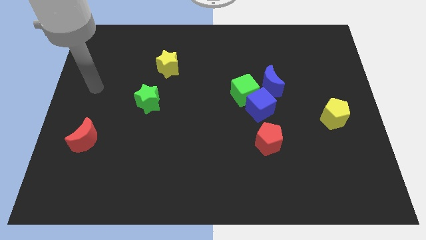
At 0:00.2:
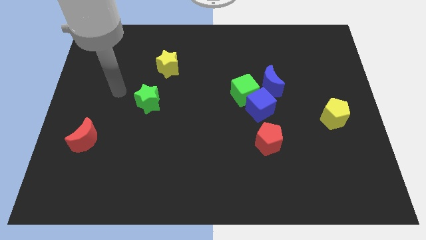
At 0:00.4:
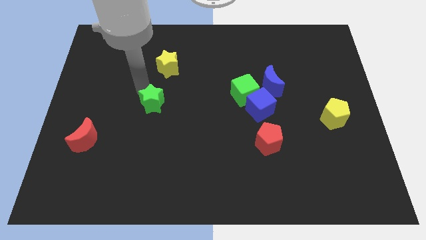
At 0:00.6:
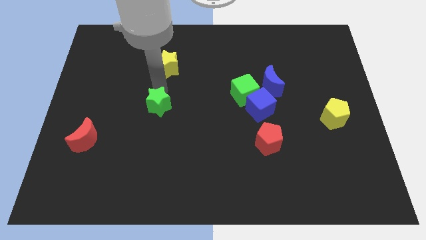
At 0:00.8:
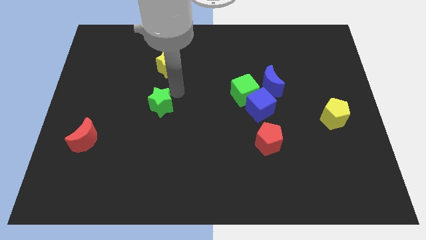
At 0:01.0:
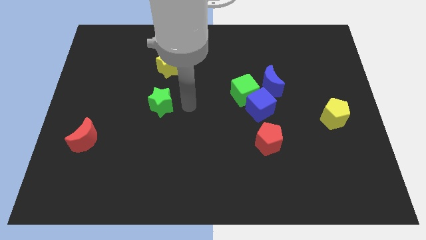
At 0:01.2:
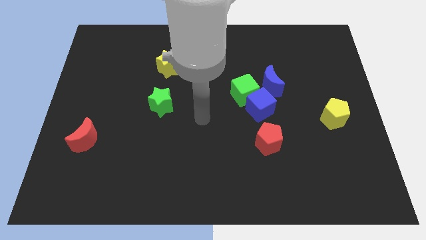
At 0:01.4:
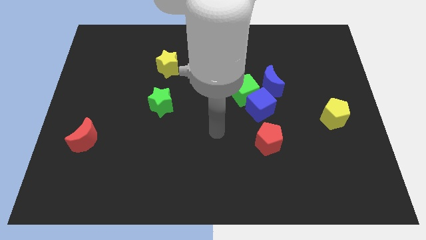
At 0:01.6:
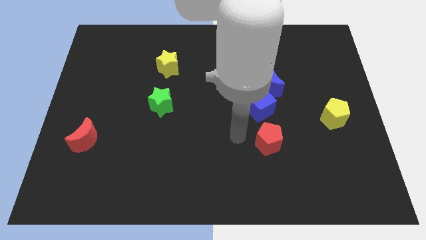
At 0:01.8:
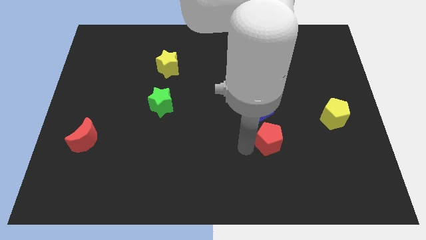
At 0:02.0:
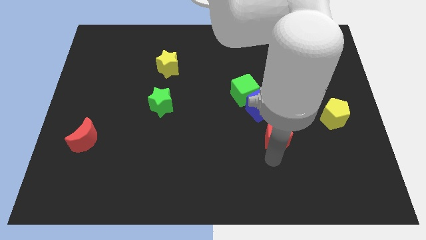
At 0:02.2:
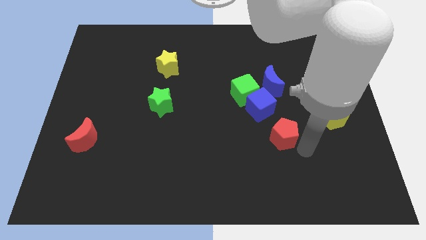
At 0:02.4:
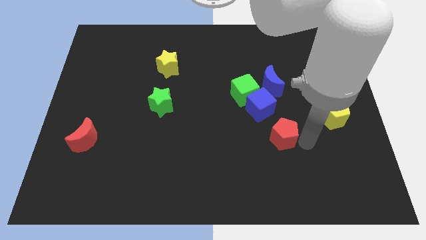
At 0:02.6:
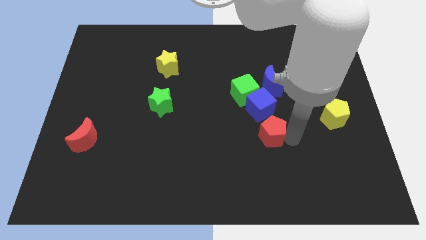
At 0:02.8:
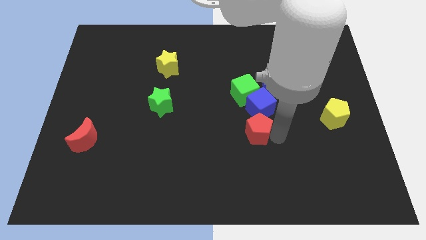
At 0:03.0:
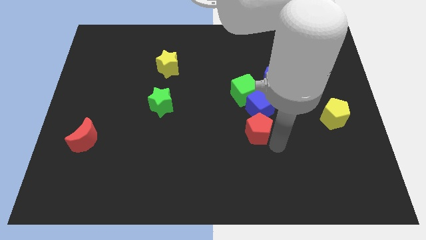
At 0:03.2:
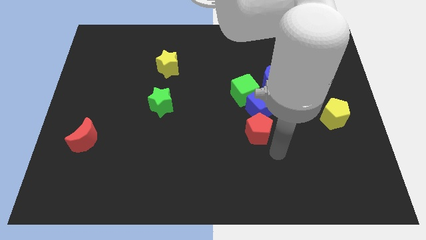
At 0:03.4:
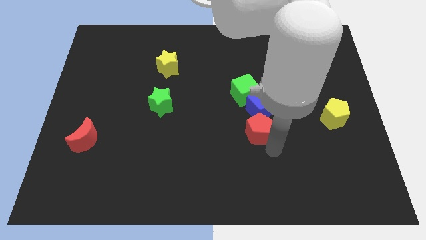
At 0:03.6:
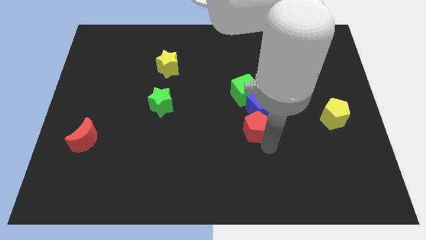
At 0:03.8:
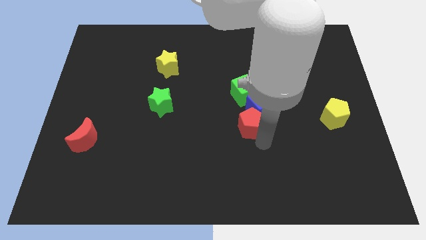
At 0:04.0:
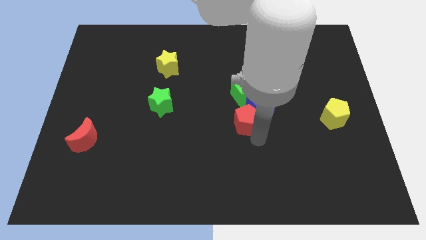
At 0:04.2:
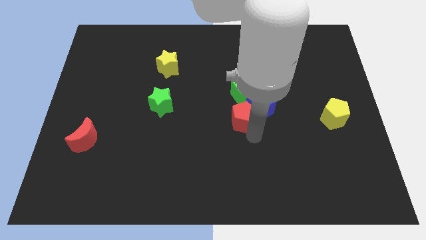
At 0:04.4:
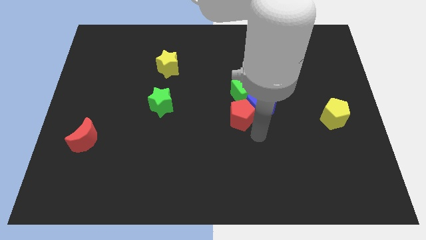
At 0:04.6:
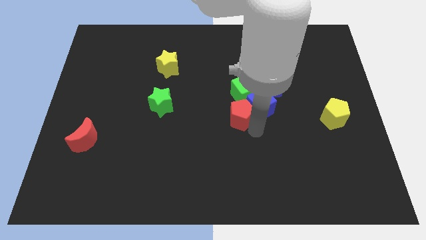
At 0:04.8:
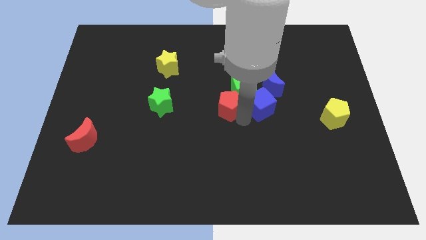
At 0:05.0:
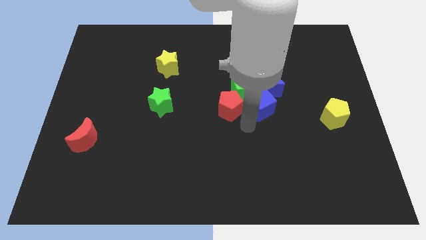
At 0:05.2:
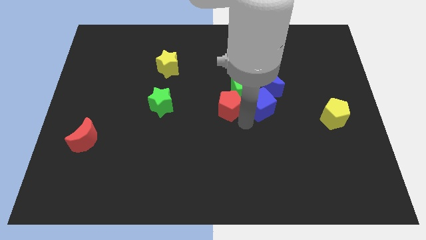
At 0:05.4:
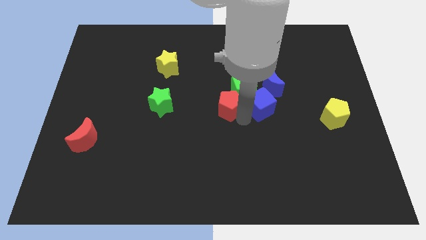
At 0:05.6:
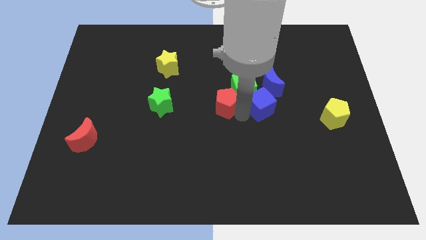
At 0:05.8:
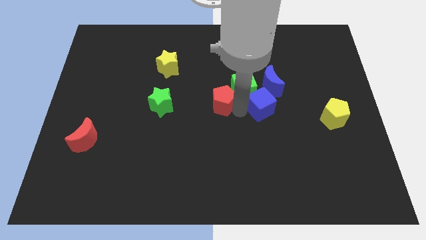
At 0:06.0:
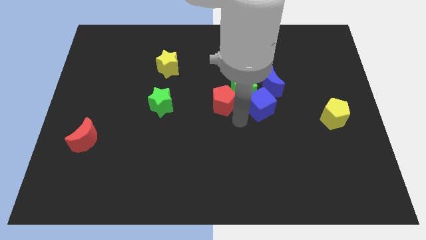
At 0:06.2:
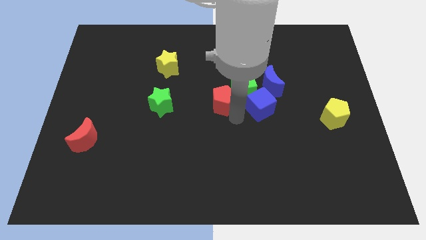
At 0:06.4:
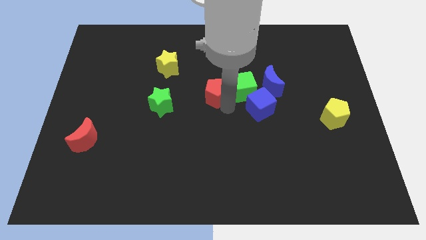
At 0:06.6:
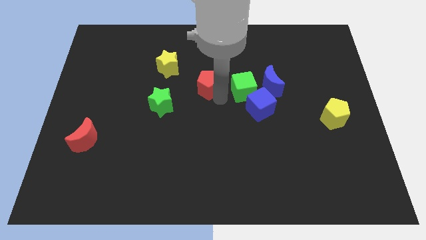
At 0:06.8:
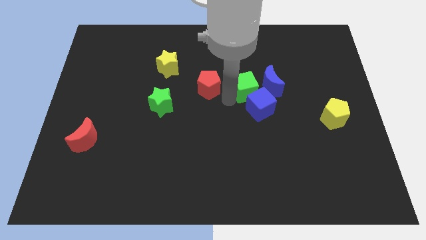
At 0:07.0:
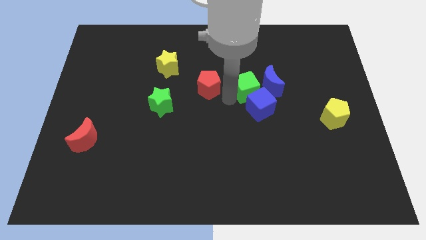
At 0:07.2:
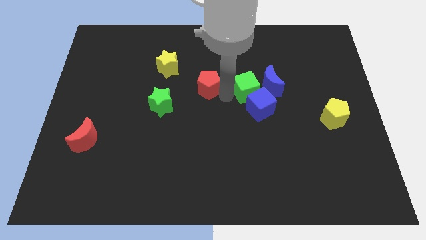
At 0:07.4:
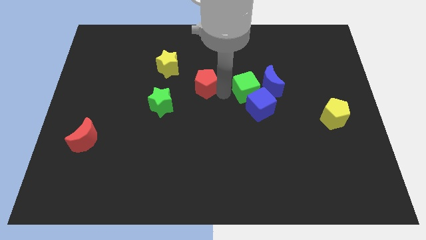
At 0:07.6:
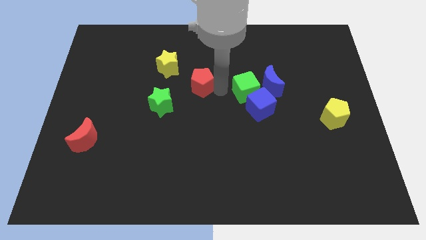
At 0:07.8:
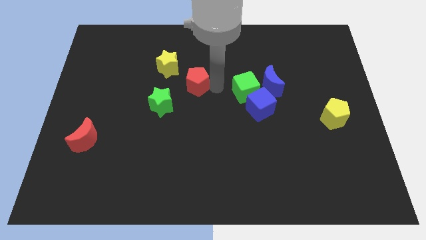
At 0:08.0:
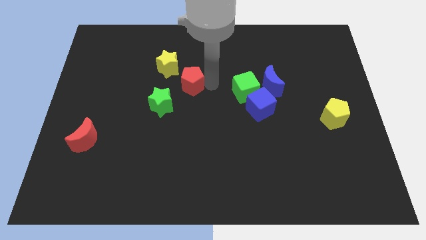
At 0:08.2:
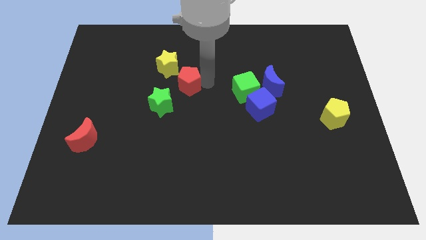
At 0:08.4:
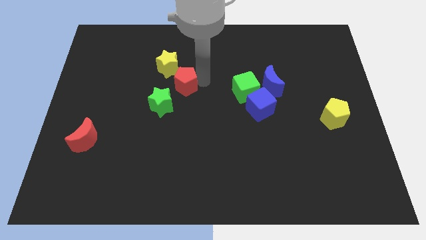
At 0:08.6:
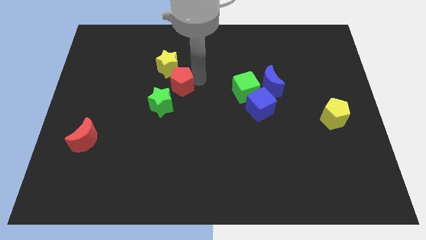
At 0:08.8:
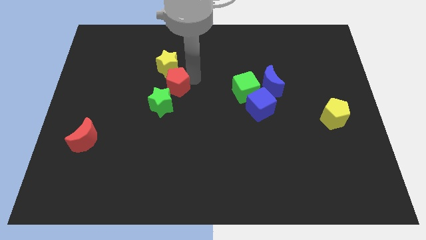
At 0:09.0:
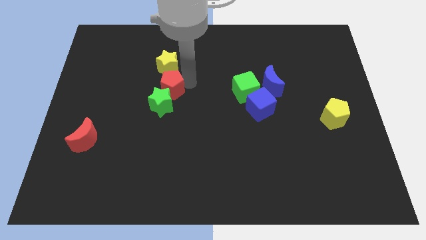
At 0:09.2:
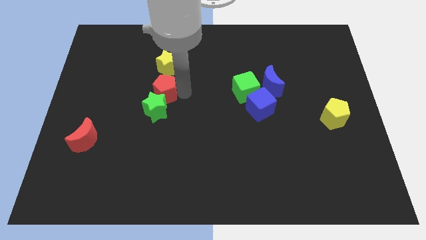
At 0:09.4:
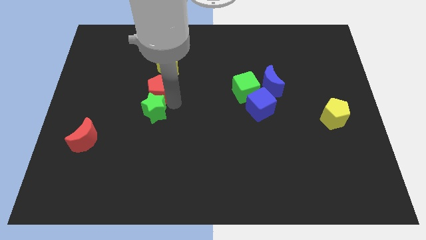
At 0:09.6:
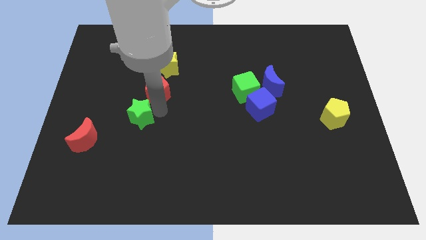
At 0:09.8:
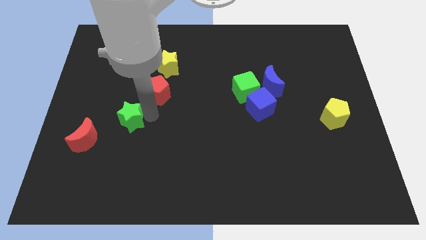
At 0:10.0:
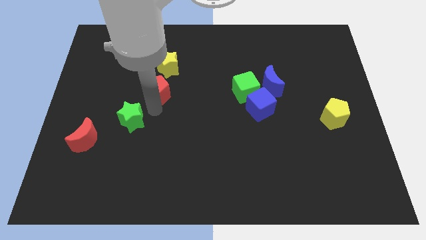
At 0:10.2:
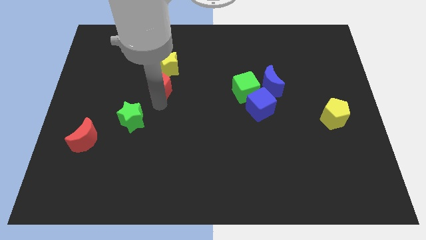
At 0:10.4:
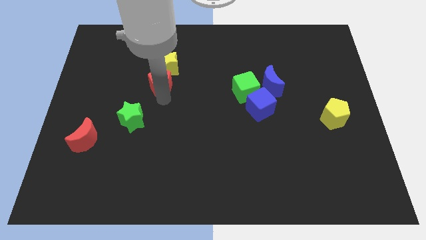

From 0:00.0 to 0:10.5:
put the red pentagon towards the yellow star

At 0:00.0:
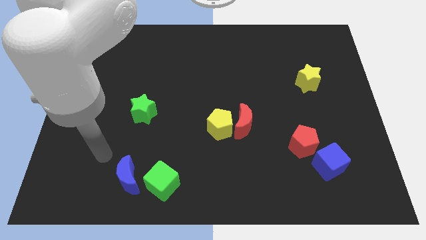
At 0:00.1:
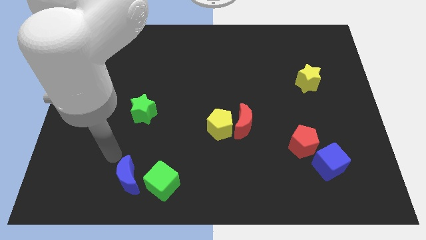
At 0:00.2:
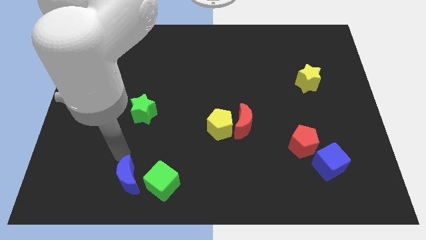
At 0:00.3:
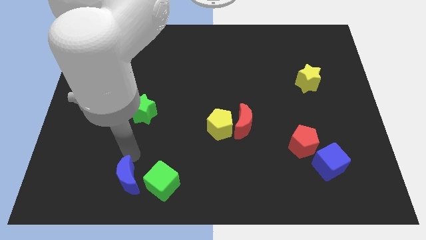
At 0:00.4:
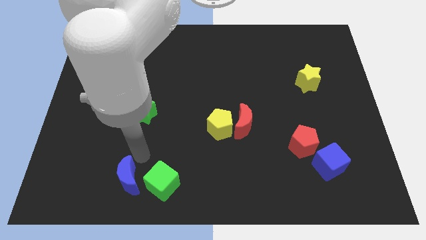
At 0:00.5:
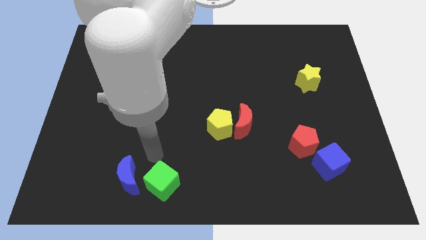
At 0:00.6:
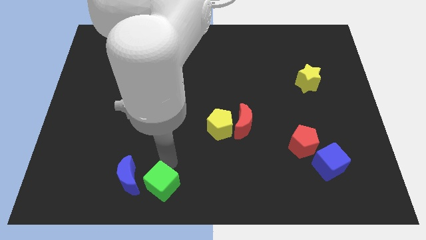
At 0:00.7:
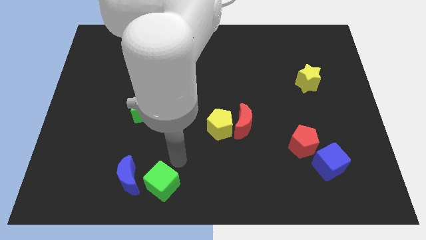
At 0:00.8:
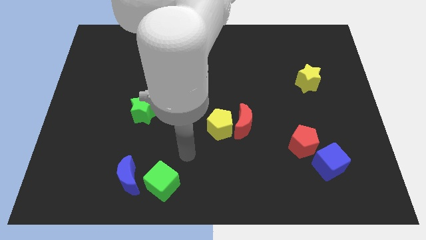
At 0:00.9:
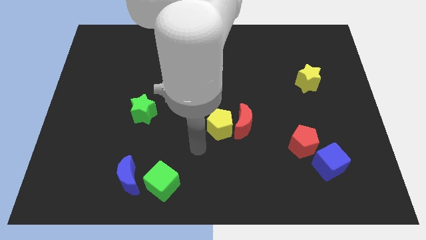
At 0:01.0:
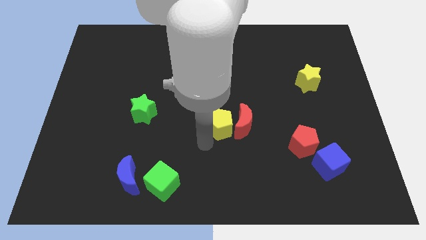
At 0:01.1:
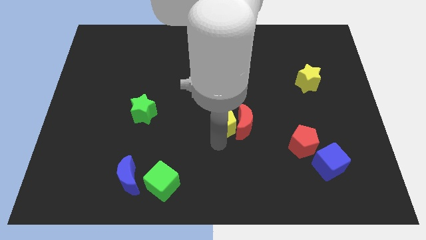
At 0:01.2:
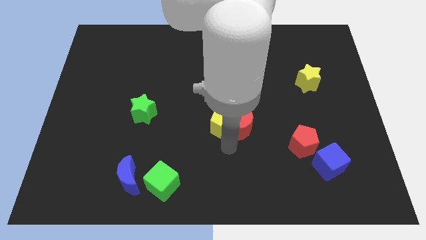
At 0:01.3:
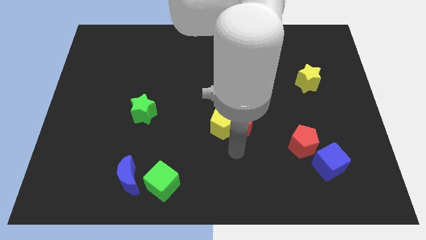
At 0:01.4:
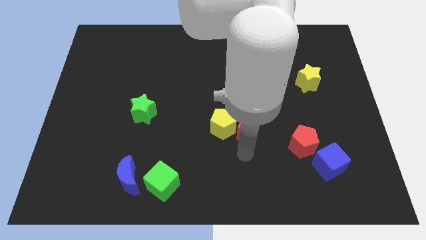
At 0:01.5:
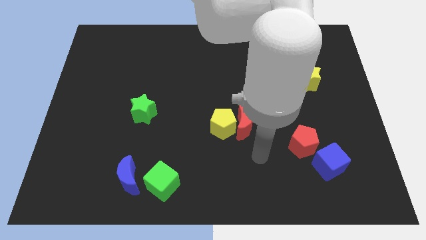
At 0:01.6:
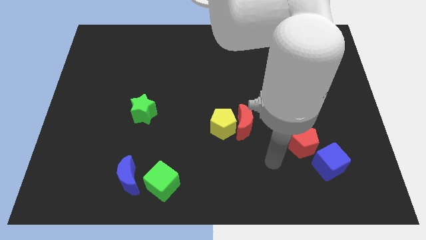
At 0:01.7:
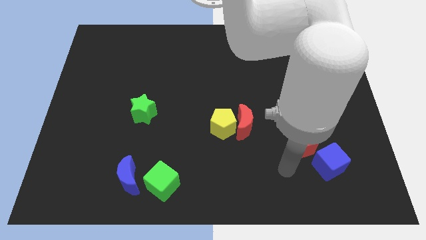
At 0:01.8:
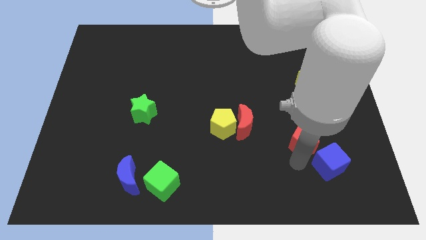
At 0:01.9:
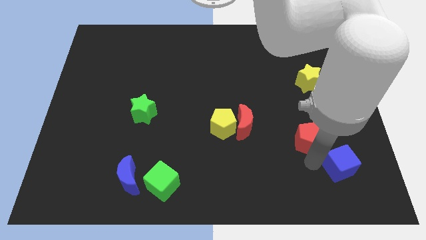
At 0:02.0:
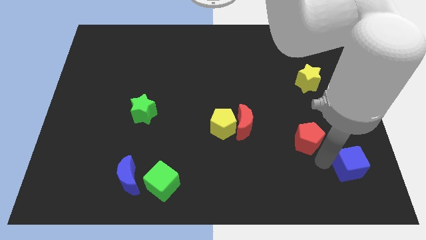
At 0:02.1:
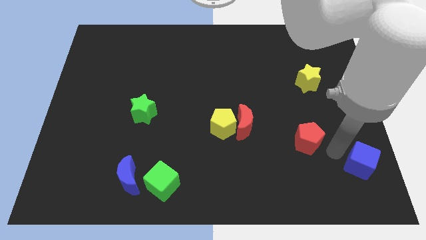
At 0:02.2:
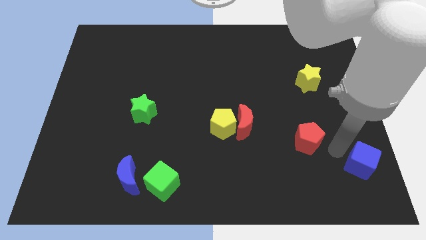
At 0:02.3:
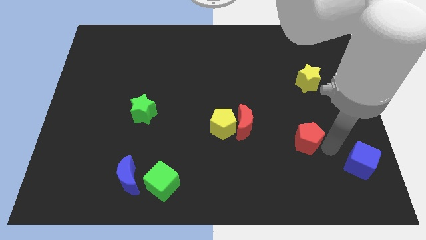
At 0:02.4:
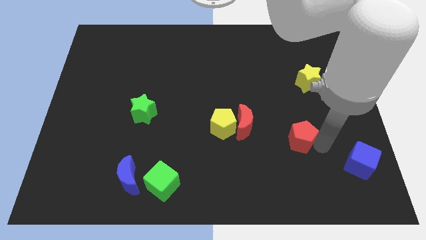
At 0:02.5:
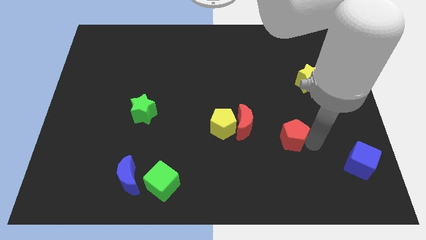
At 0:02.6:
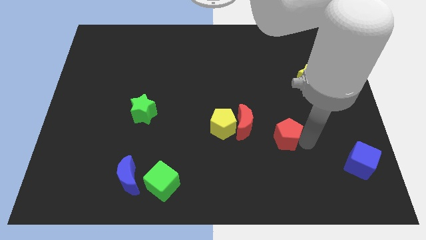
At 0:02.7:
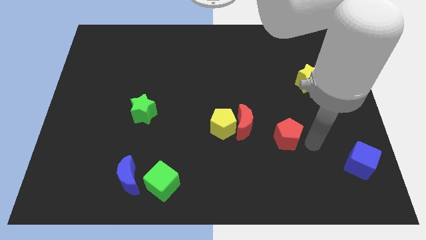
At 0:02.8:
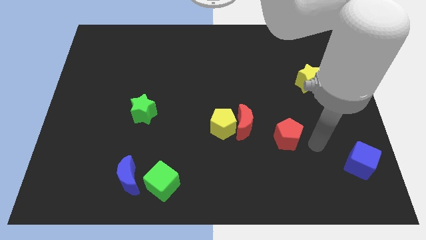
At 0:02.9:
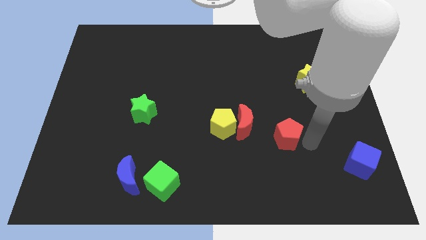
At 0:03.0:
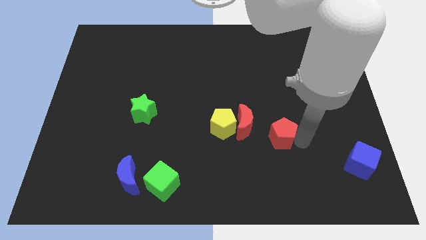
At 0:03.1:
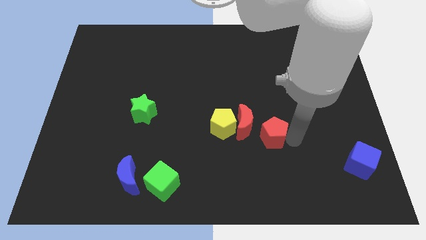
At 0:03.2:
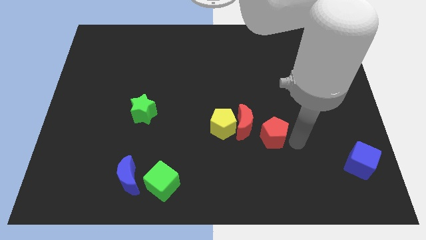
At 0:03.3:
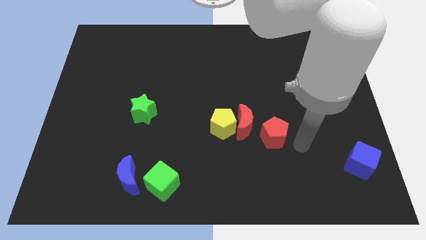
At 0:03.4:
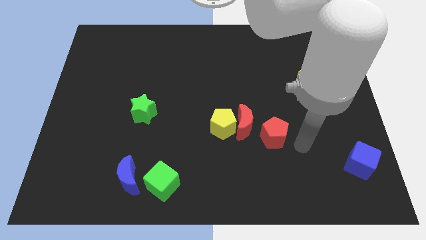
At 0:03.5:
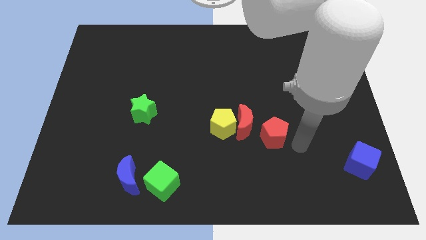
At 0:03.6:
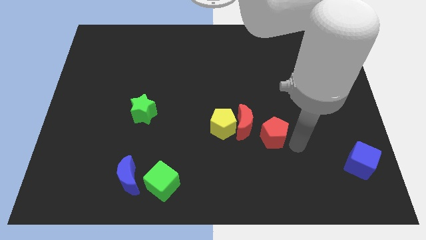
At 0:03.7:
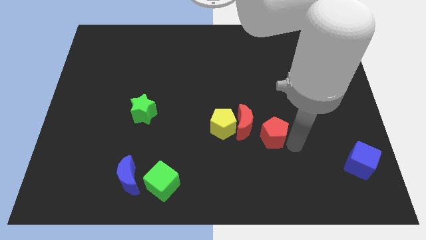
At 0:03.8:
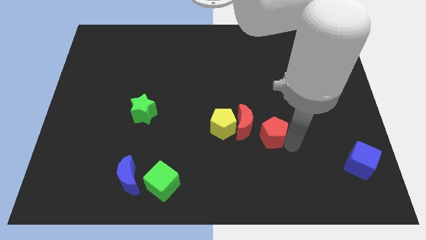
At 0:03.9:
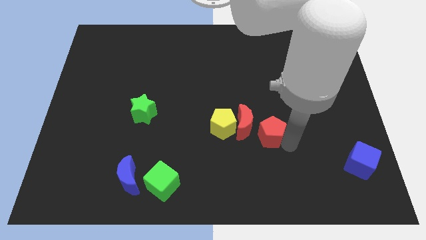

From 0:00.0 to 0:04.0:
push the red pentagon towards the red moon
